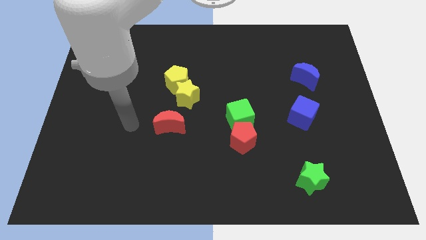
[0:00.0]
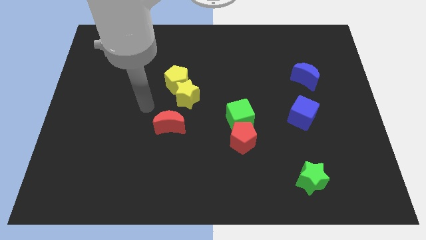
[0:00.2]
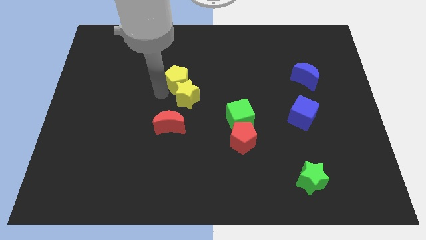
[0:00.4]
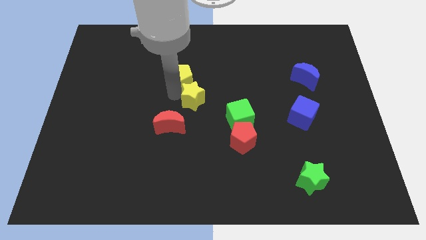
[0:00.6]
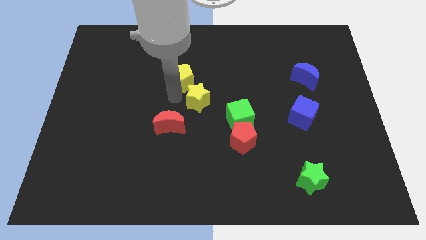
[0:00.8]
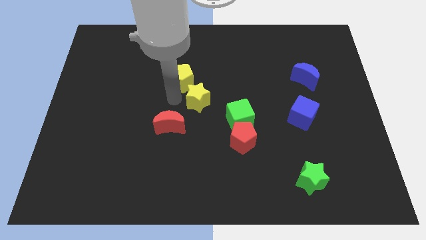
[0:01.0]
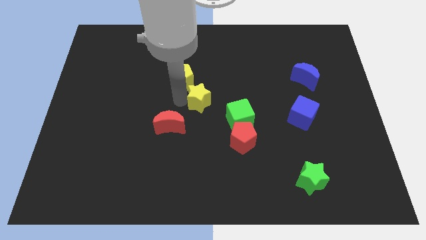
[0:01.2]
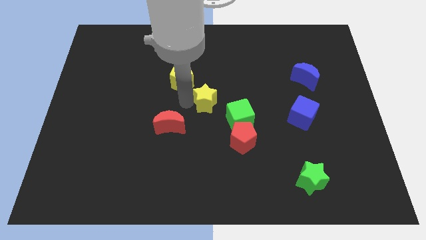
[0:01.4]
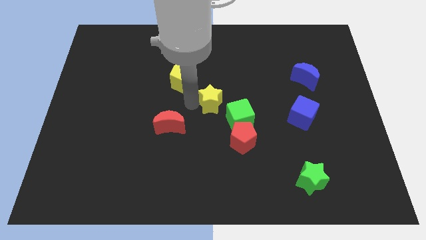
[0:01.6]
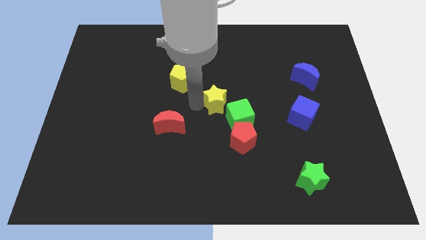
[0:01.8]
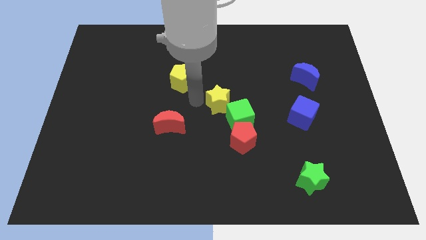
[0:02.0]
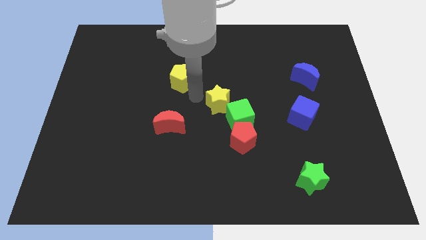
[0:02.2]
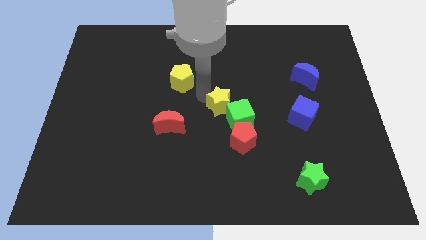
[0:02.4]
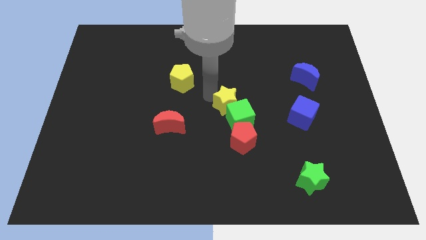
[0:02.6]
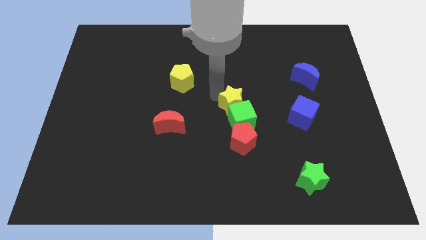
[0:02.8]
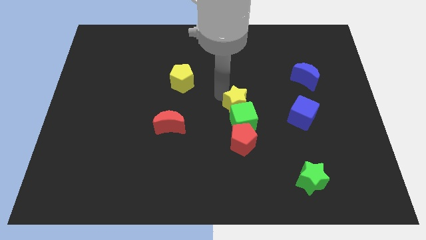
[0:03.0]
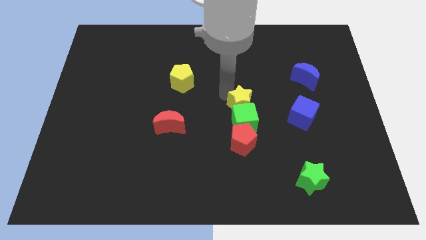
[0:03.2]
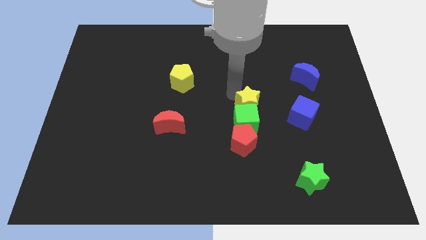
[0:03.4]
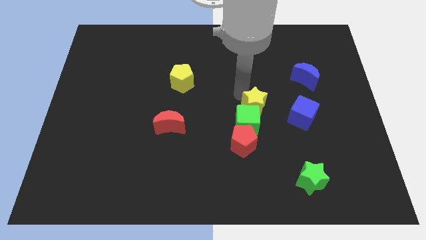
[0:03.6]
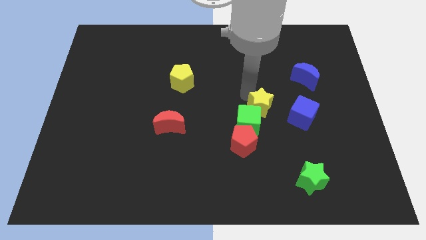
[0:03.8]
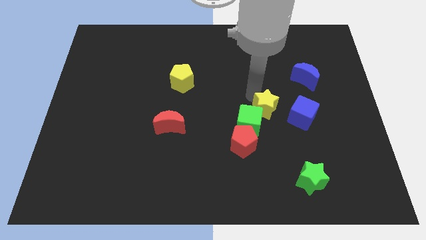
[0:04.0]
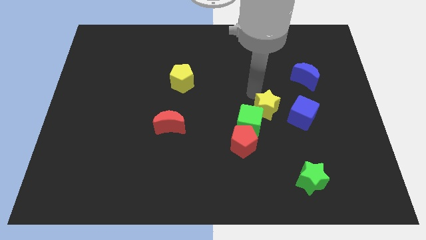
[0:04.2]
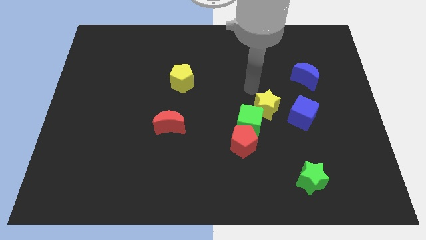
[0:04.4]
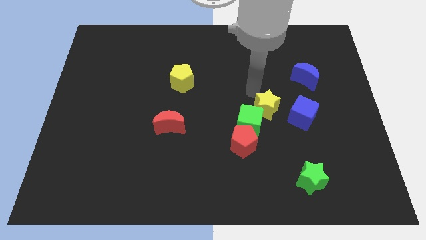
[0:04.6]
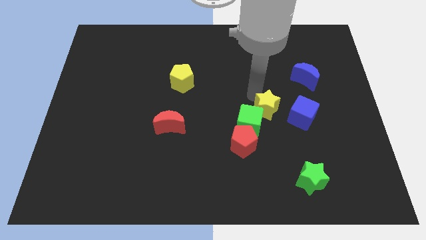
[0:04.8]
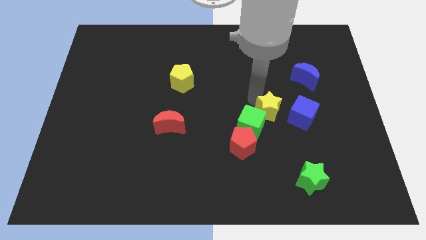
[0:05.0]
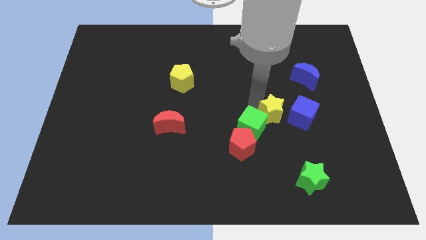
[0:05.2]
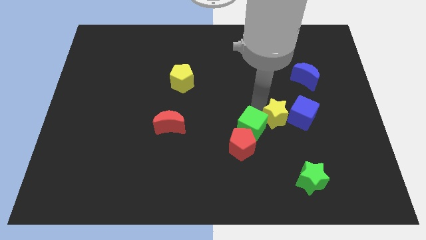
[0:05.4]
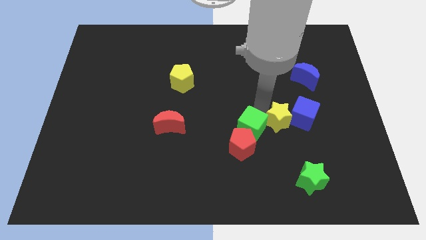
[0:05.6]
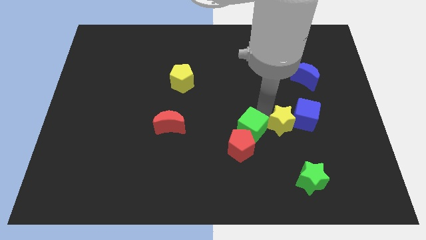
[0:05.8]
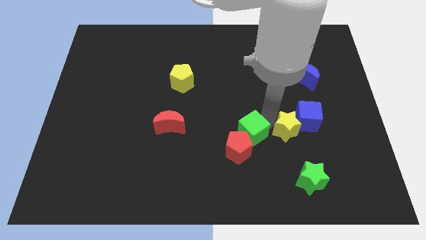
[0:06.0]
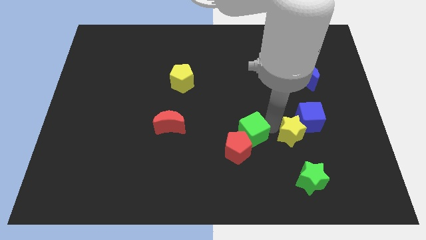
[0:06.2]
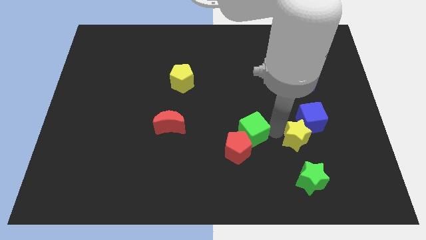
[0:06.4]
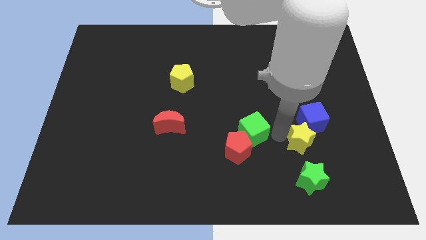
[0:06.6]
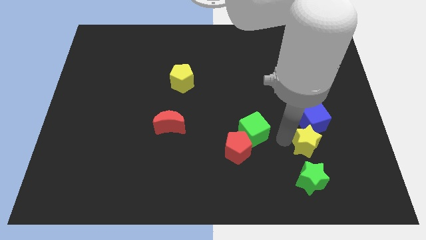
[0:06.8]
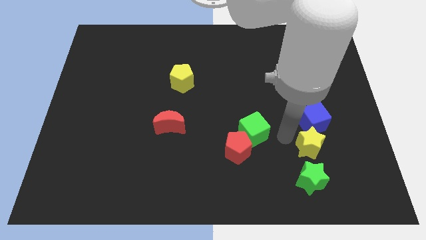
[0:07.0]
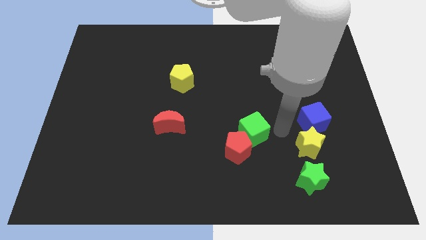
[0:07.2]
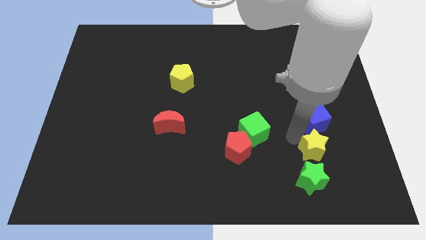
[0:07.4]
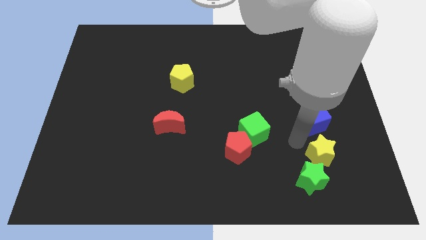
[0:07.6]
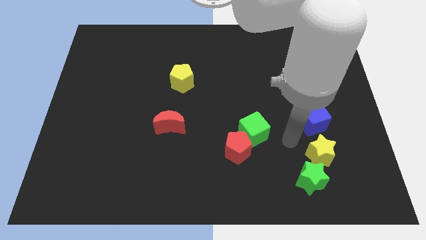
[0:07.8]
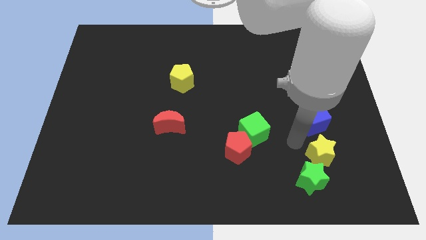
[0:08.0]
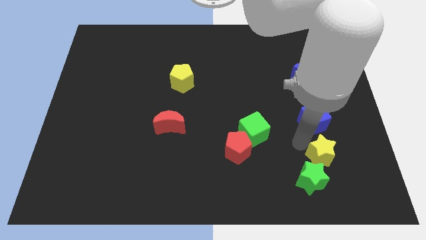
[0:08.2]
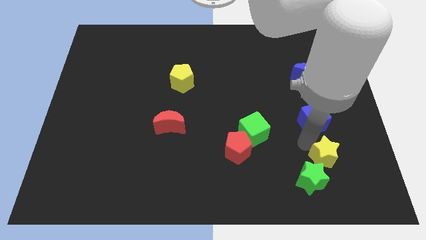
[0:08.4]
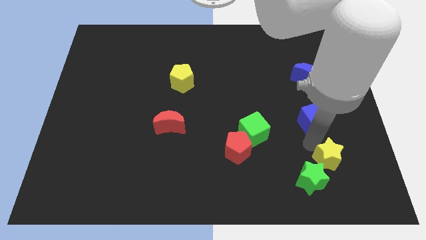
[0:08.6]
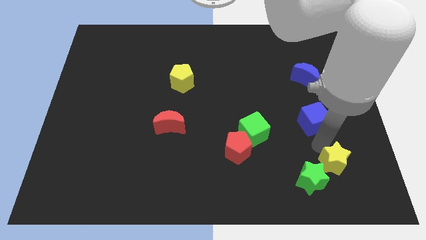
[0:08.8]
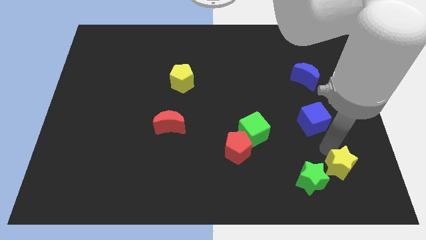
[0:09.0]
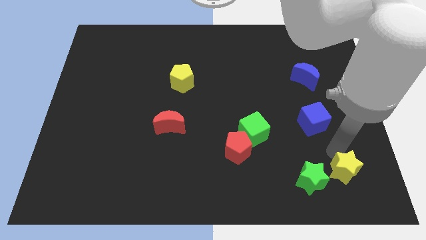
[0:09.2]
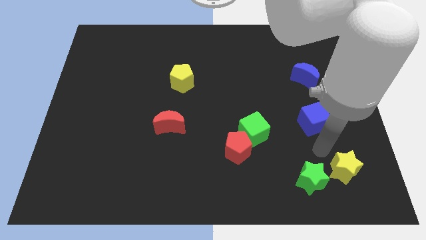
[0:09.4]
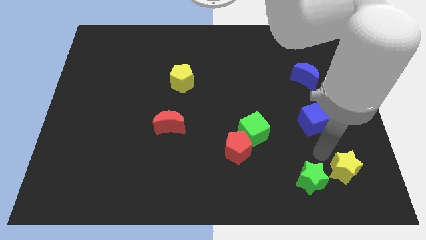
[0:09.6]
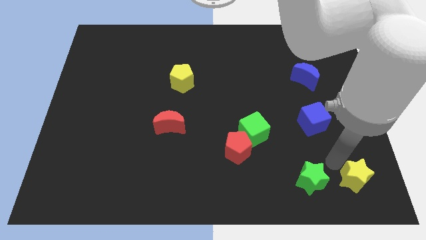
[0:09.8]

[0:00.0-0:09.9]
put the yellow star to the bottom right

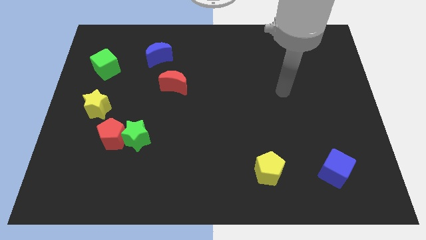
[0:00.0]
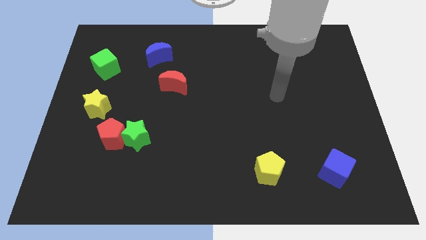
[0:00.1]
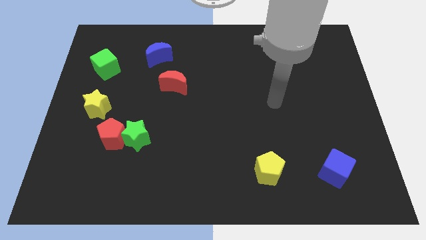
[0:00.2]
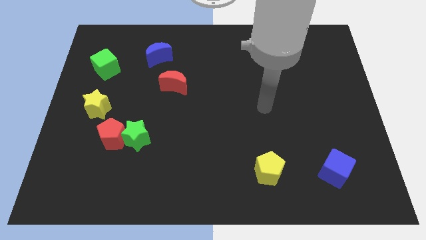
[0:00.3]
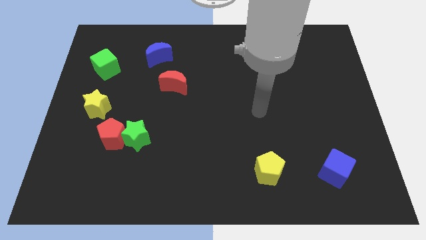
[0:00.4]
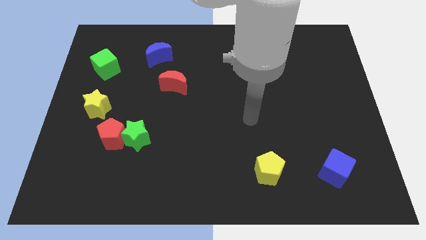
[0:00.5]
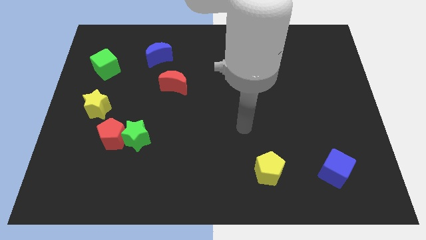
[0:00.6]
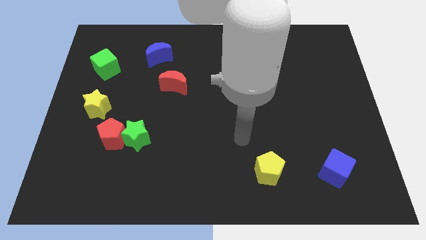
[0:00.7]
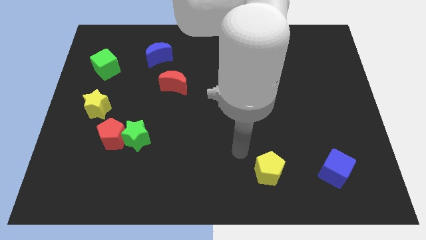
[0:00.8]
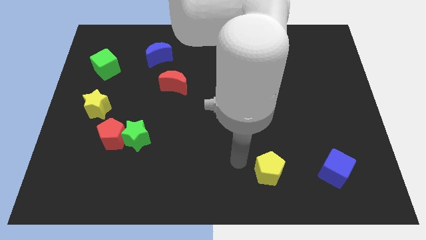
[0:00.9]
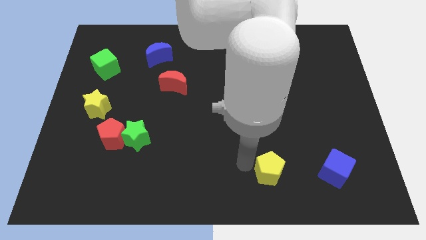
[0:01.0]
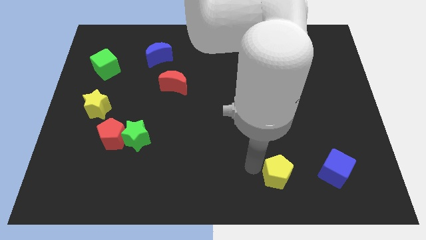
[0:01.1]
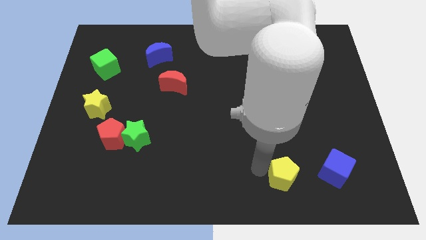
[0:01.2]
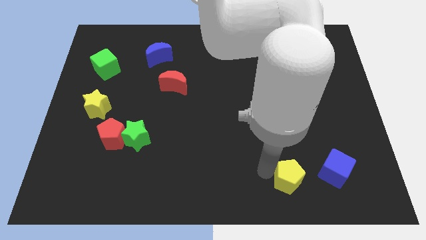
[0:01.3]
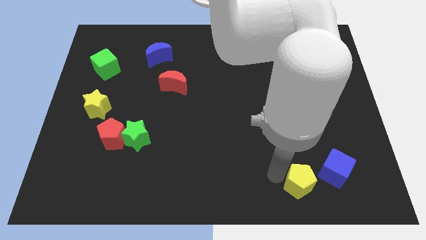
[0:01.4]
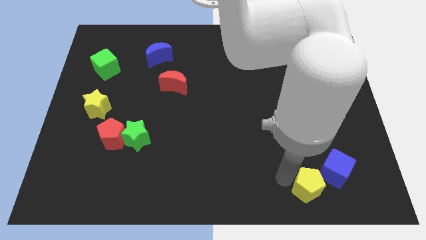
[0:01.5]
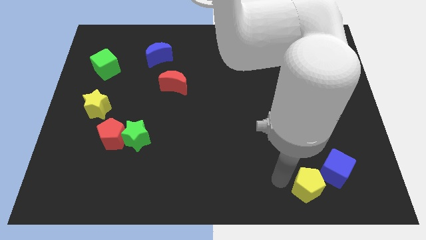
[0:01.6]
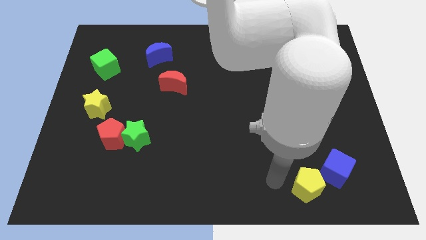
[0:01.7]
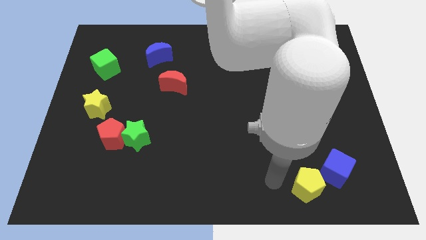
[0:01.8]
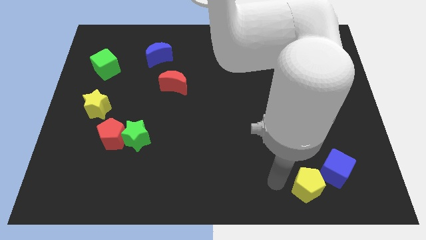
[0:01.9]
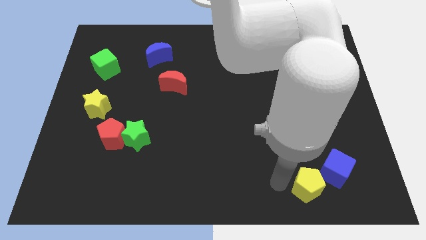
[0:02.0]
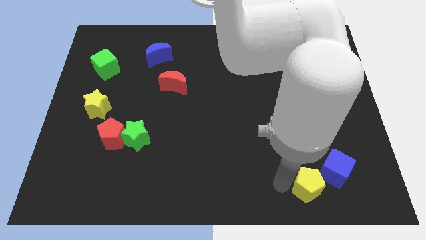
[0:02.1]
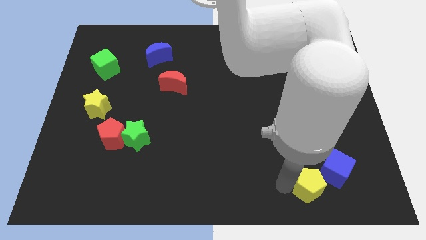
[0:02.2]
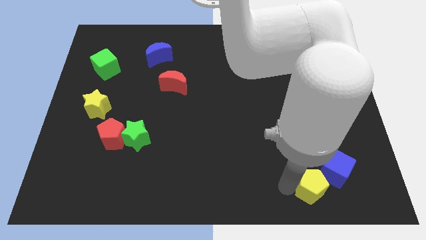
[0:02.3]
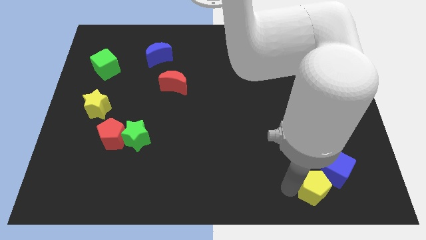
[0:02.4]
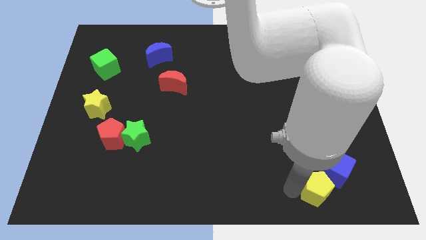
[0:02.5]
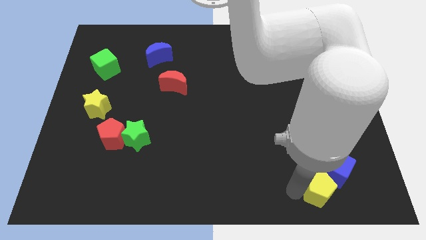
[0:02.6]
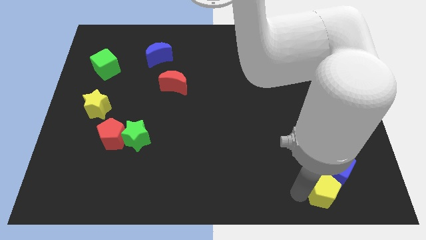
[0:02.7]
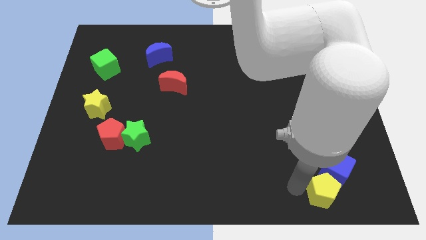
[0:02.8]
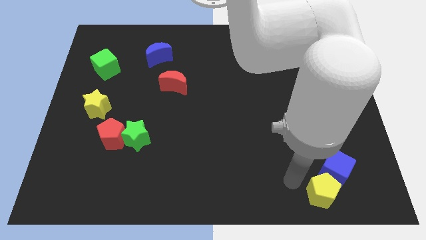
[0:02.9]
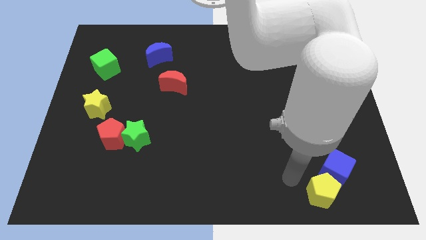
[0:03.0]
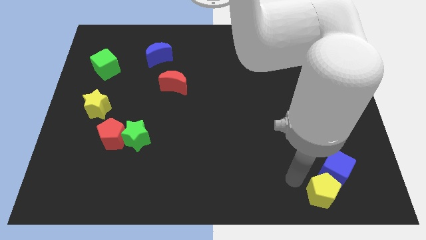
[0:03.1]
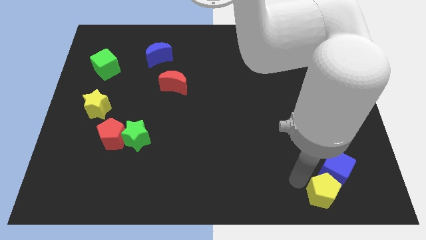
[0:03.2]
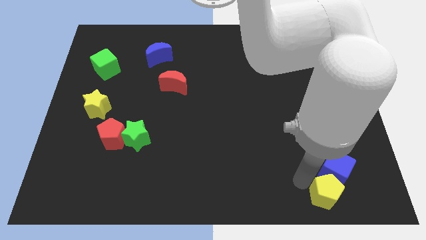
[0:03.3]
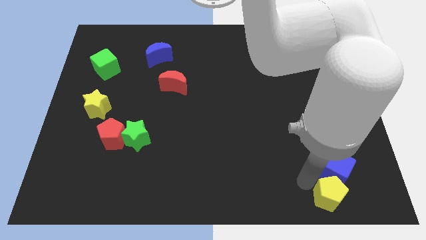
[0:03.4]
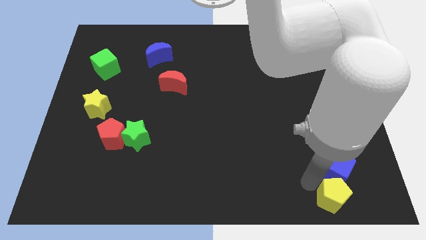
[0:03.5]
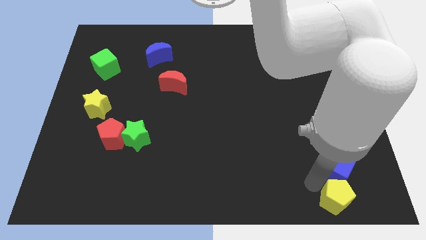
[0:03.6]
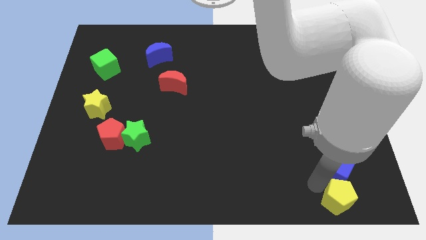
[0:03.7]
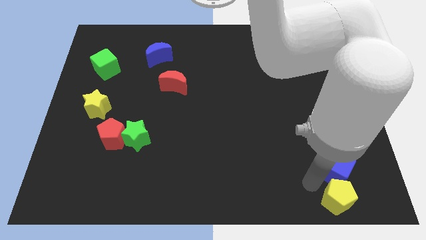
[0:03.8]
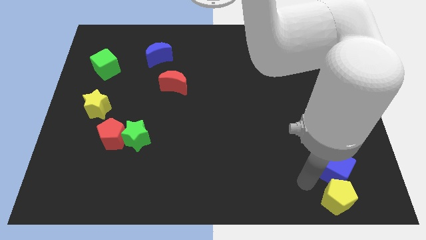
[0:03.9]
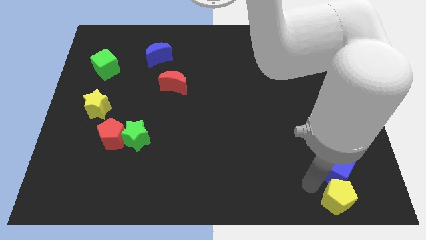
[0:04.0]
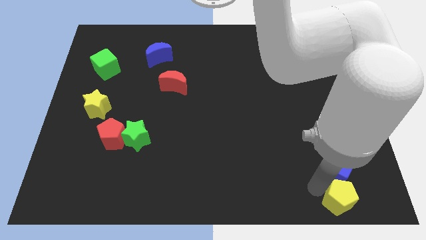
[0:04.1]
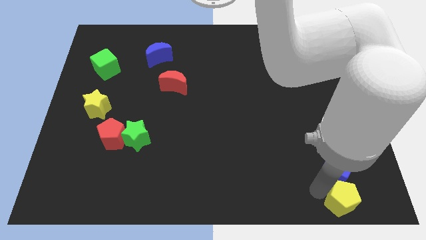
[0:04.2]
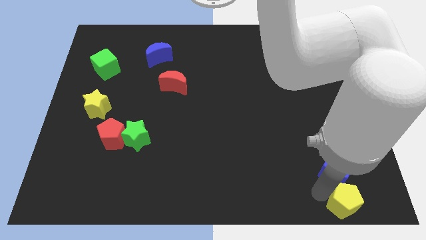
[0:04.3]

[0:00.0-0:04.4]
put the yellow pentagon to the bottom right
